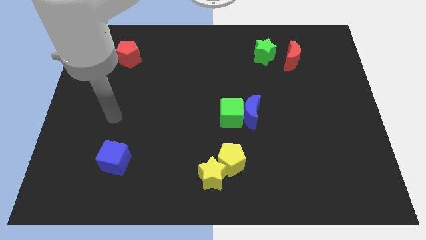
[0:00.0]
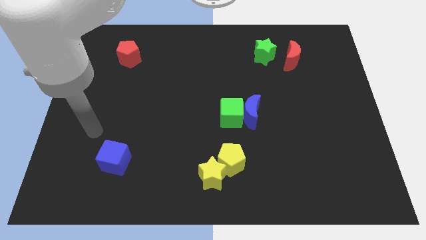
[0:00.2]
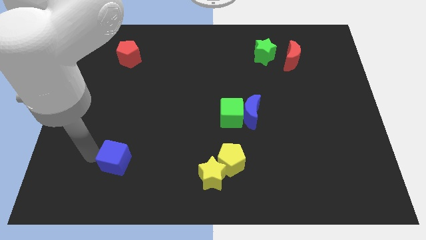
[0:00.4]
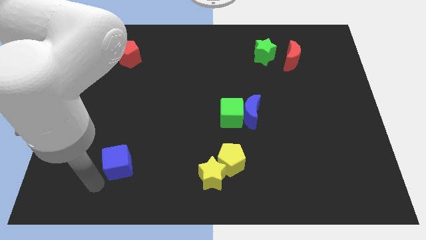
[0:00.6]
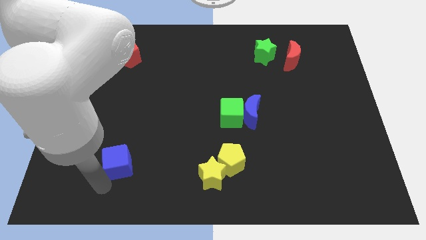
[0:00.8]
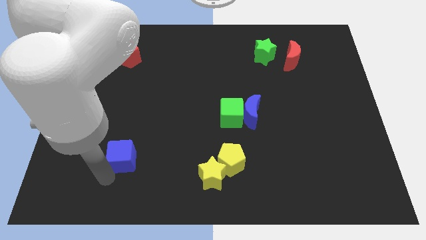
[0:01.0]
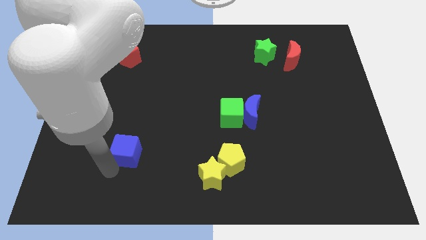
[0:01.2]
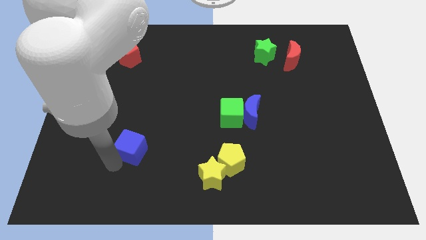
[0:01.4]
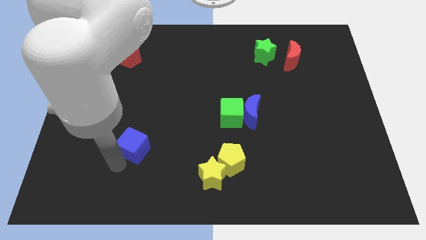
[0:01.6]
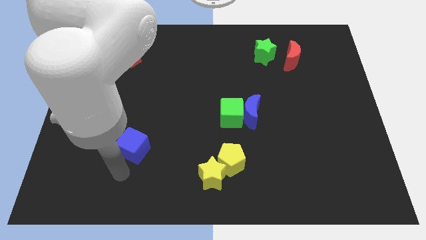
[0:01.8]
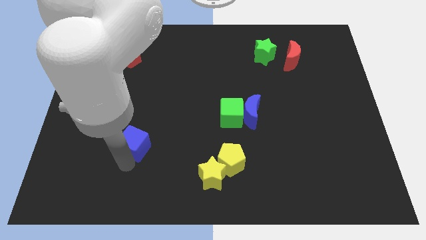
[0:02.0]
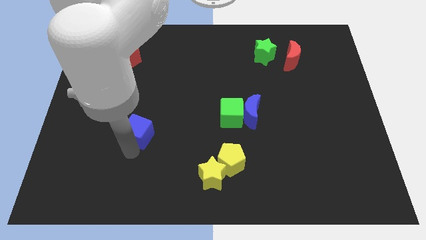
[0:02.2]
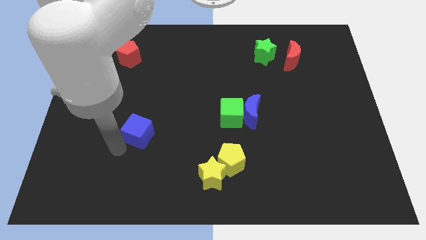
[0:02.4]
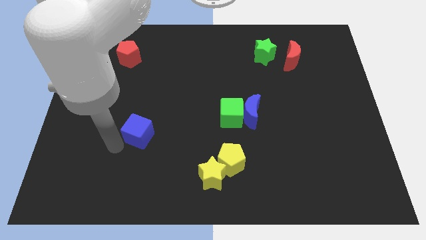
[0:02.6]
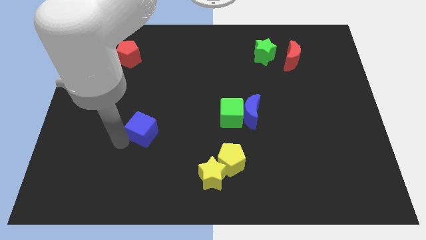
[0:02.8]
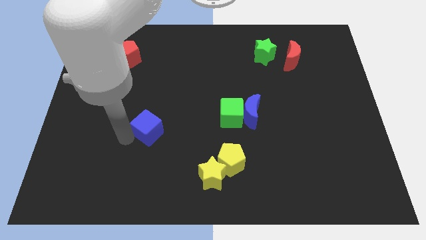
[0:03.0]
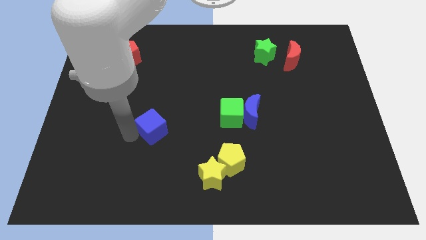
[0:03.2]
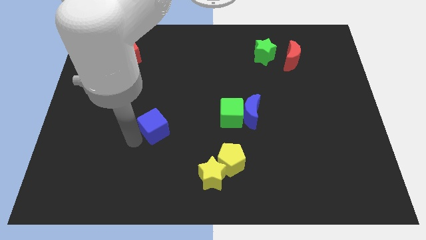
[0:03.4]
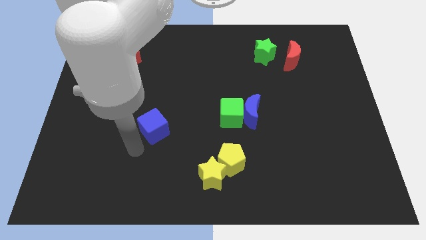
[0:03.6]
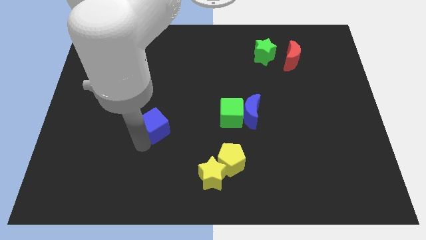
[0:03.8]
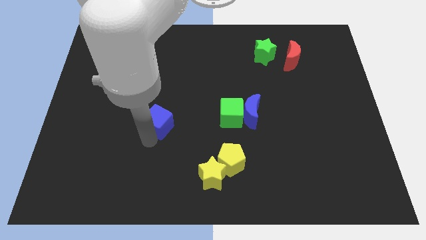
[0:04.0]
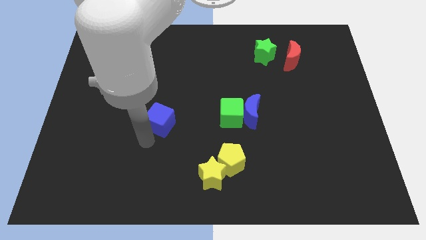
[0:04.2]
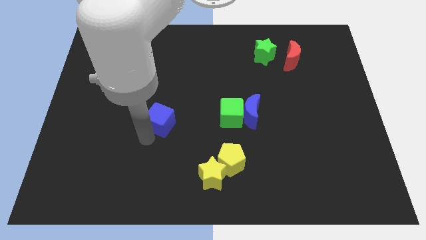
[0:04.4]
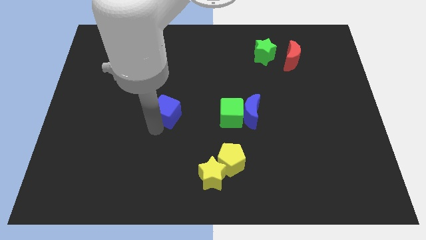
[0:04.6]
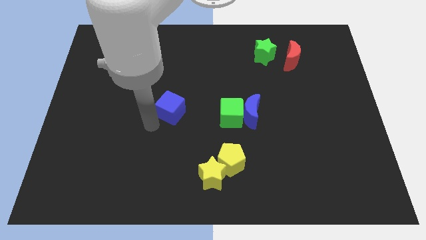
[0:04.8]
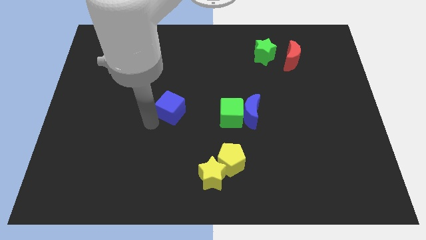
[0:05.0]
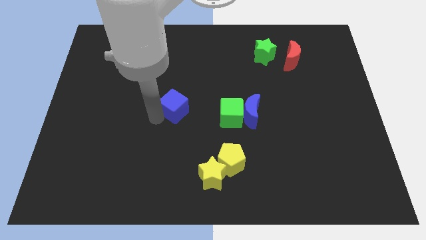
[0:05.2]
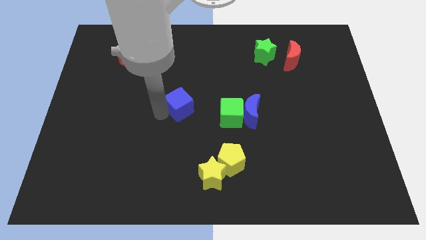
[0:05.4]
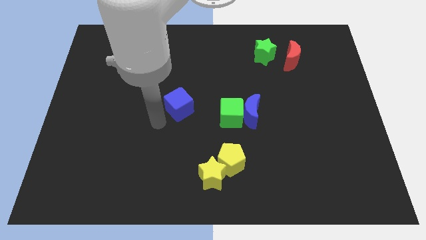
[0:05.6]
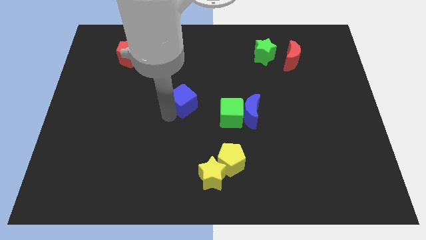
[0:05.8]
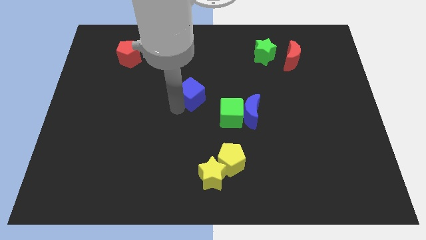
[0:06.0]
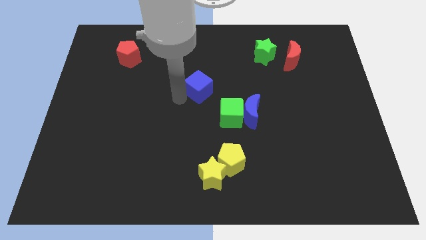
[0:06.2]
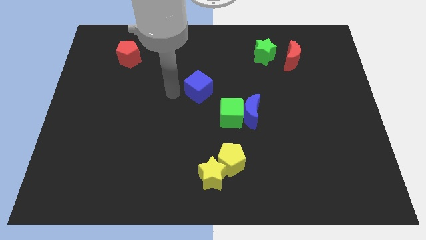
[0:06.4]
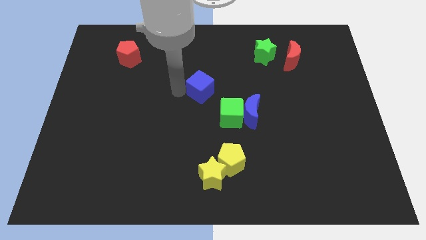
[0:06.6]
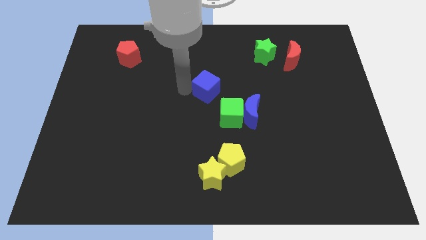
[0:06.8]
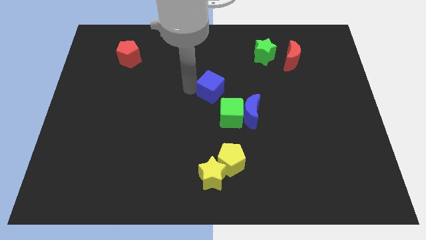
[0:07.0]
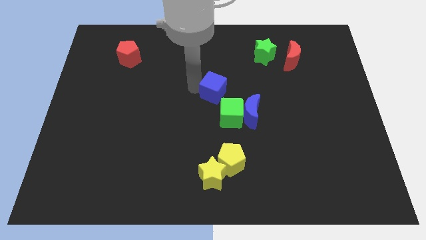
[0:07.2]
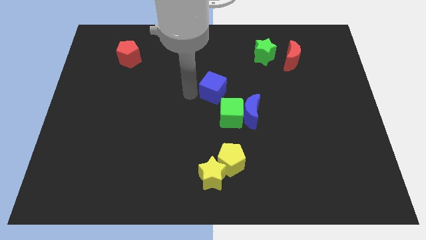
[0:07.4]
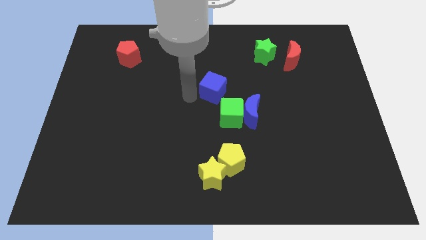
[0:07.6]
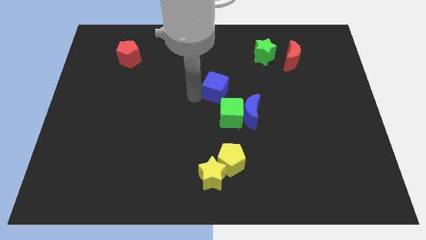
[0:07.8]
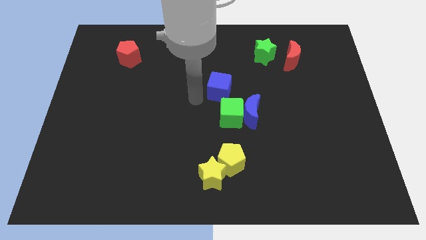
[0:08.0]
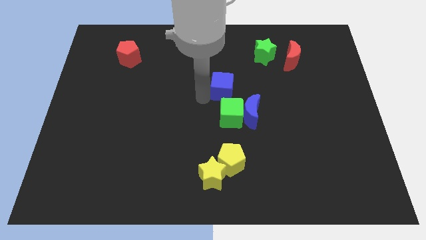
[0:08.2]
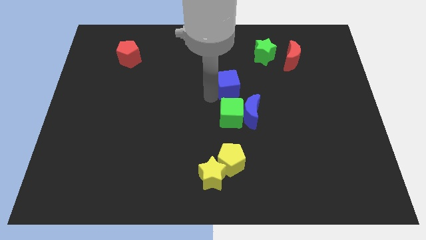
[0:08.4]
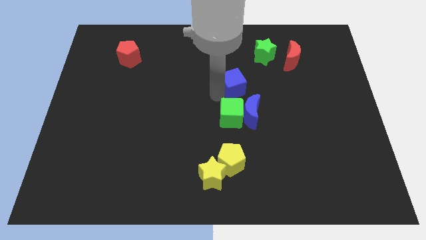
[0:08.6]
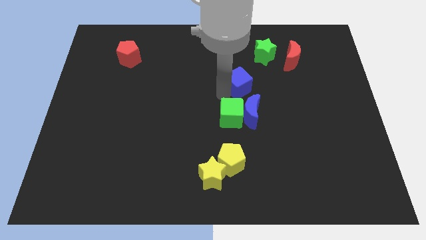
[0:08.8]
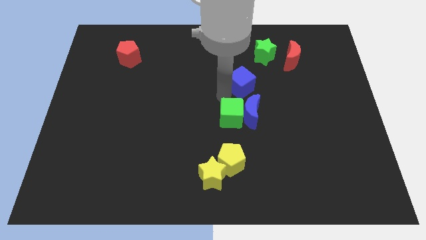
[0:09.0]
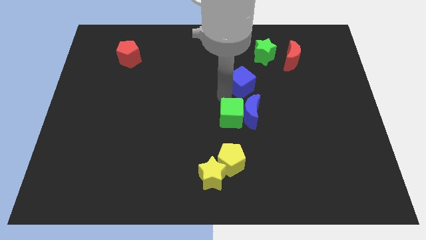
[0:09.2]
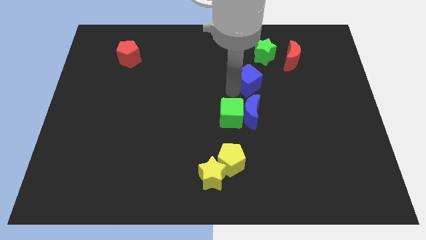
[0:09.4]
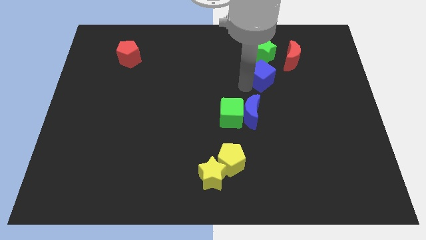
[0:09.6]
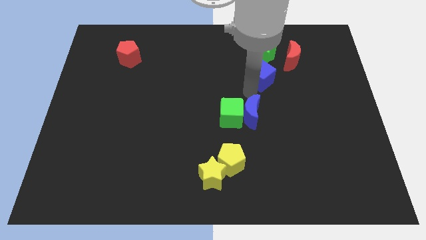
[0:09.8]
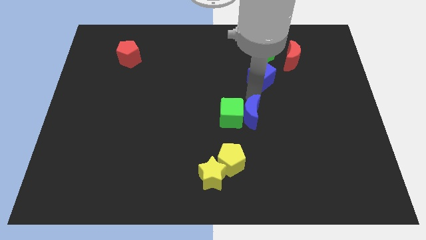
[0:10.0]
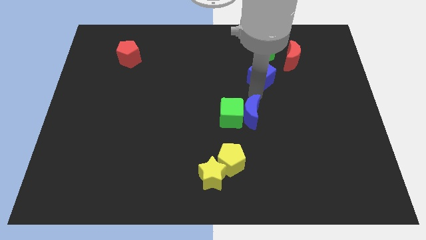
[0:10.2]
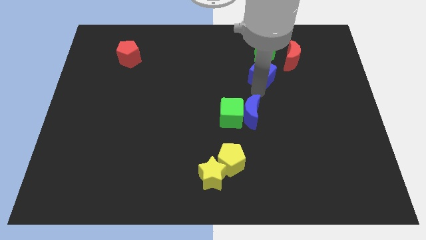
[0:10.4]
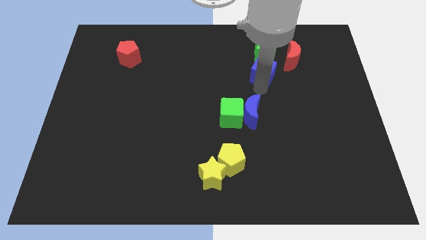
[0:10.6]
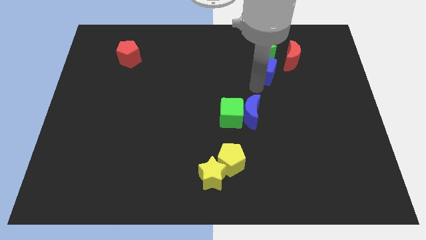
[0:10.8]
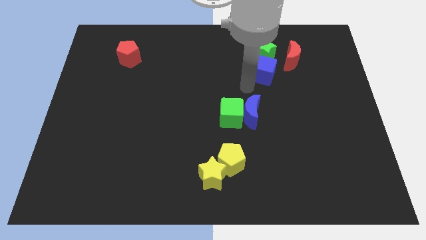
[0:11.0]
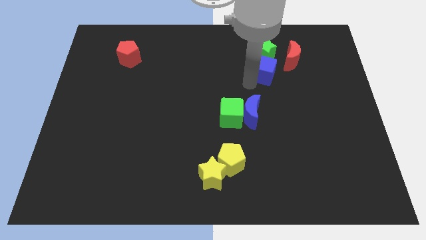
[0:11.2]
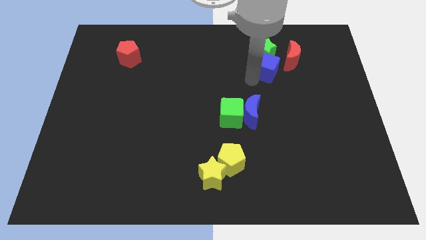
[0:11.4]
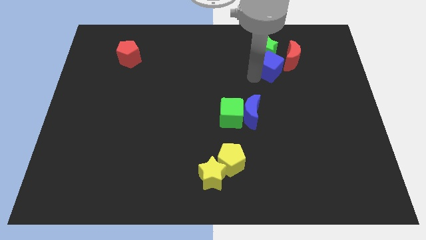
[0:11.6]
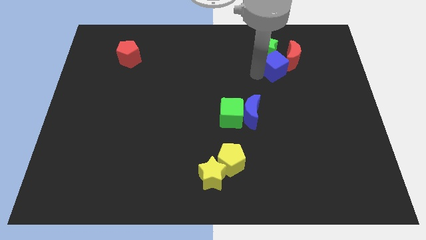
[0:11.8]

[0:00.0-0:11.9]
move the blue cube next to the red moon

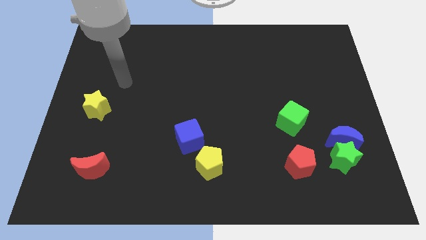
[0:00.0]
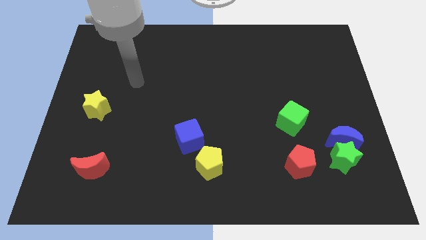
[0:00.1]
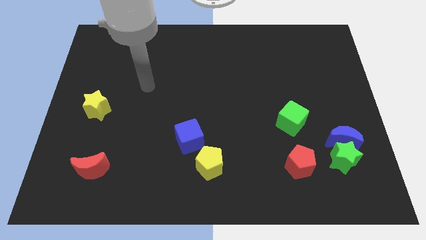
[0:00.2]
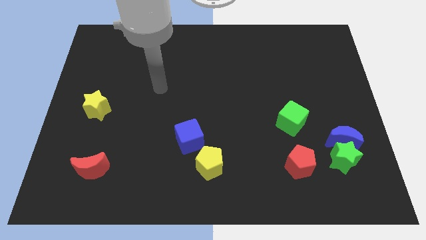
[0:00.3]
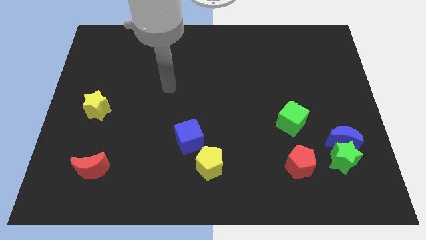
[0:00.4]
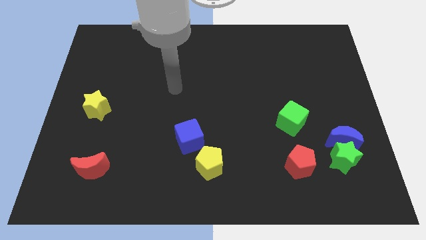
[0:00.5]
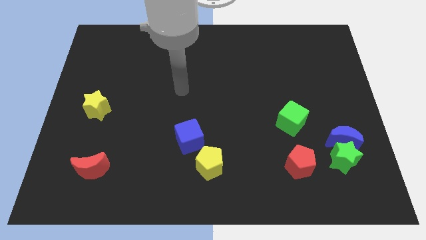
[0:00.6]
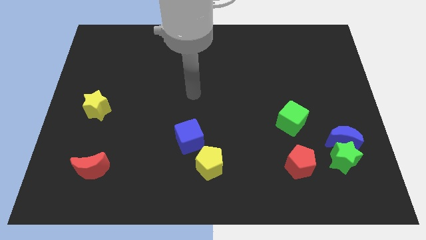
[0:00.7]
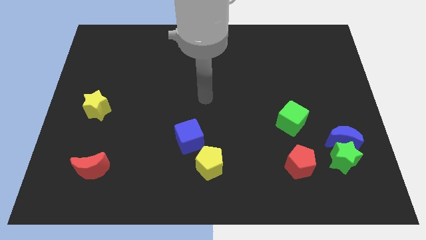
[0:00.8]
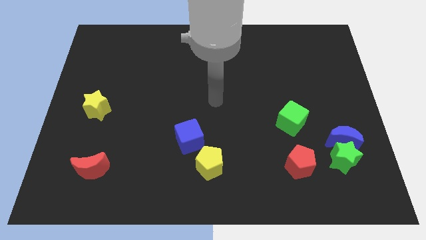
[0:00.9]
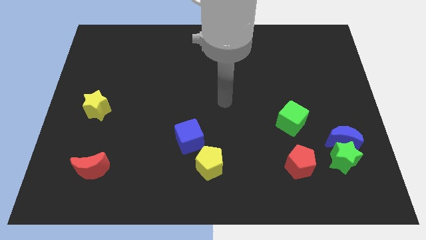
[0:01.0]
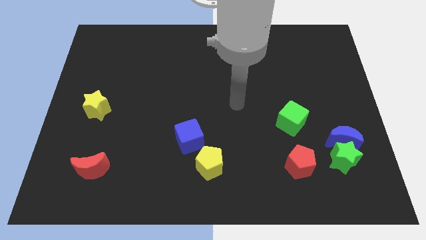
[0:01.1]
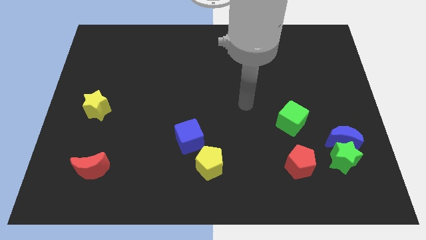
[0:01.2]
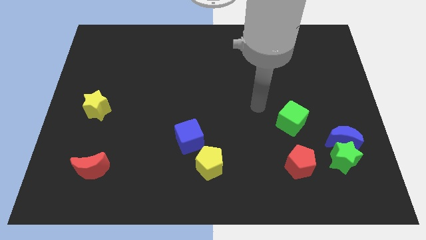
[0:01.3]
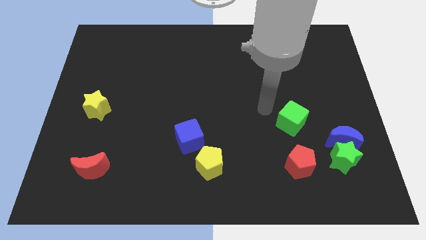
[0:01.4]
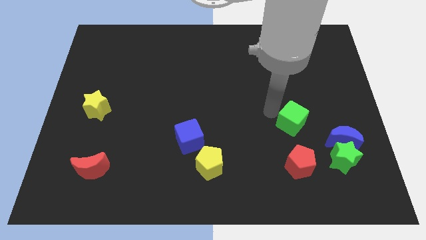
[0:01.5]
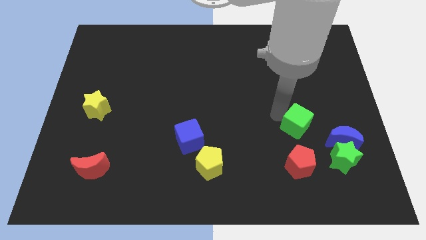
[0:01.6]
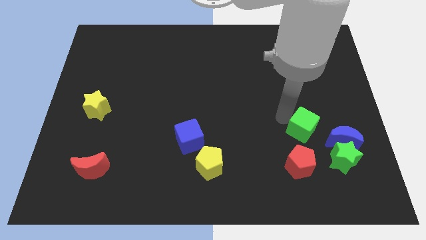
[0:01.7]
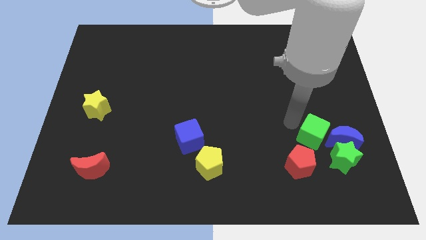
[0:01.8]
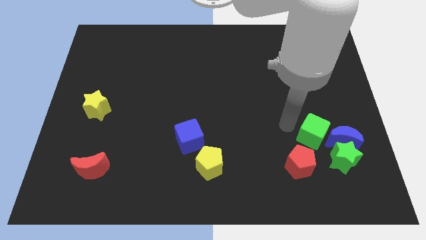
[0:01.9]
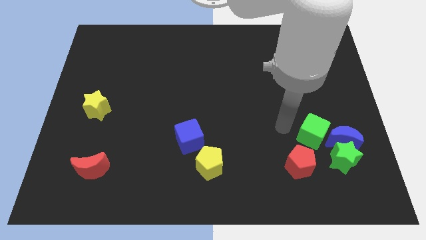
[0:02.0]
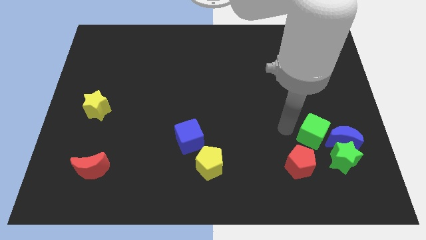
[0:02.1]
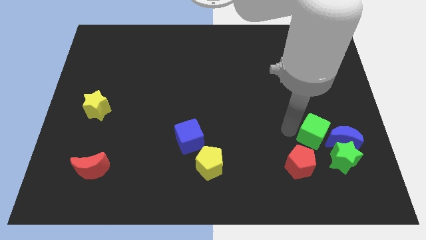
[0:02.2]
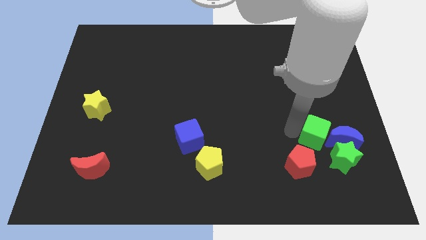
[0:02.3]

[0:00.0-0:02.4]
put the green cube to the blue moon
